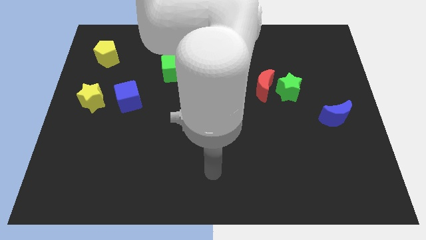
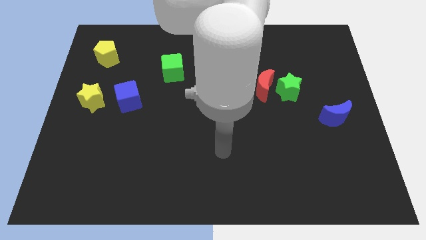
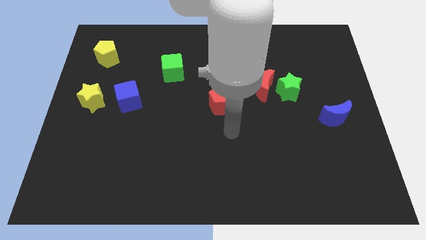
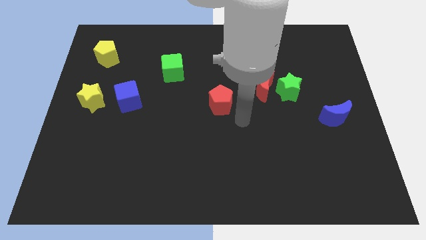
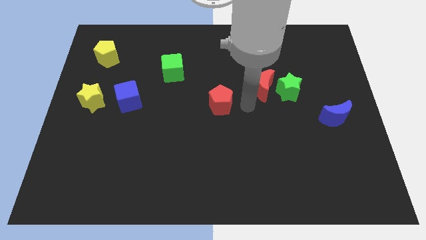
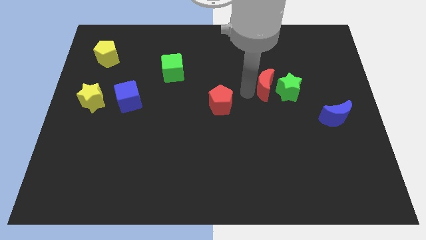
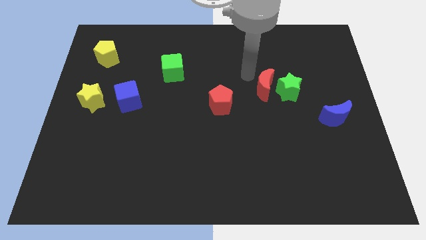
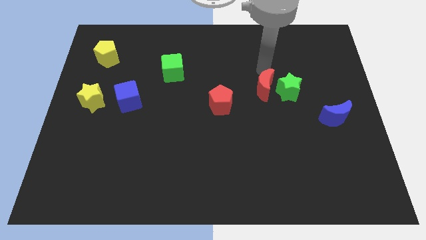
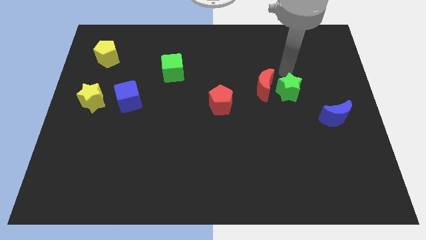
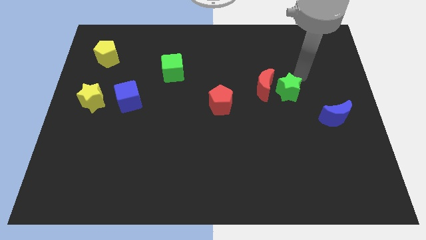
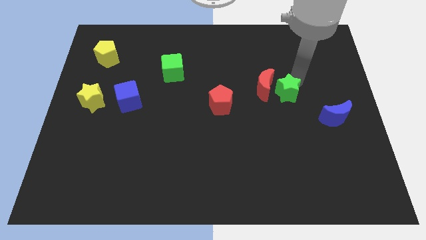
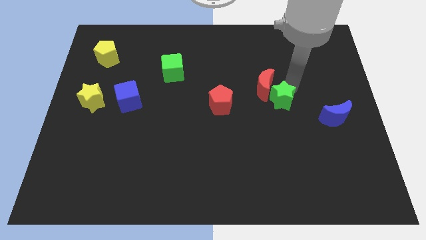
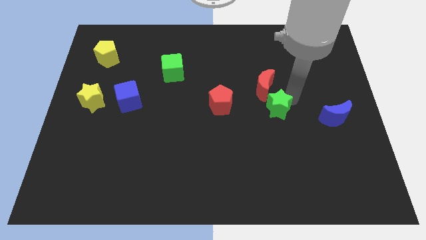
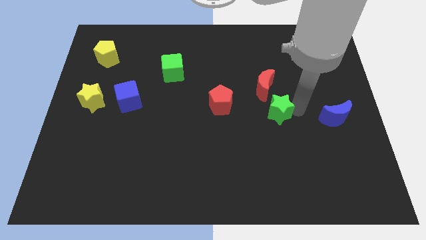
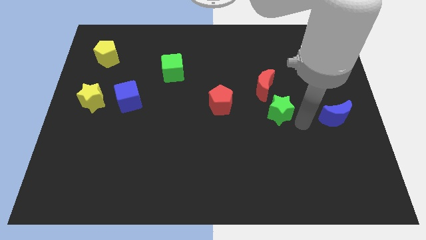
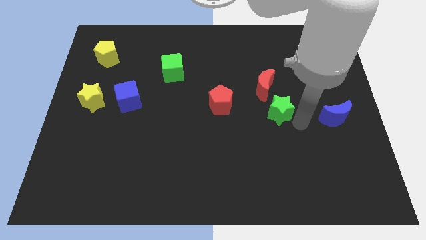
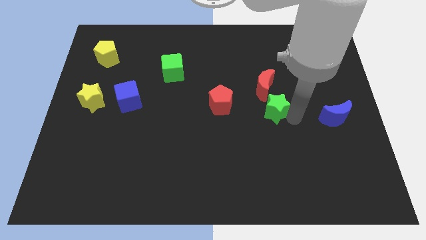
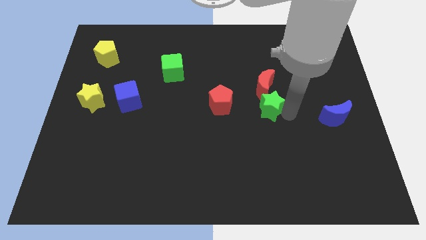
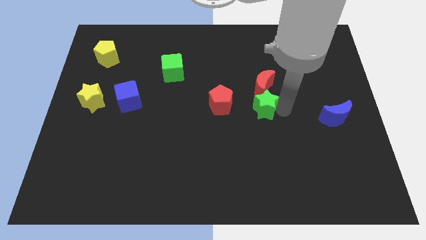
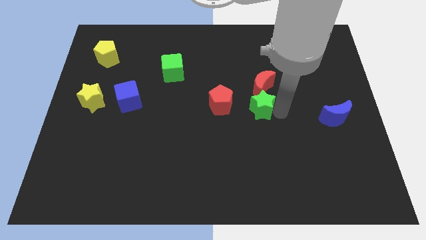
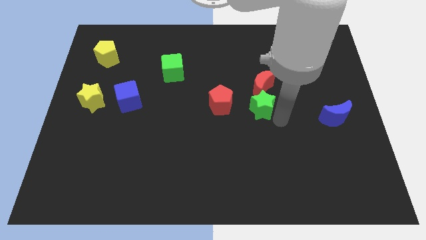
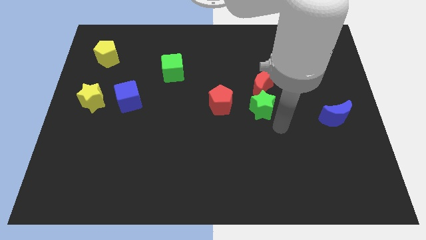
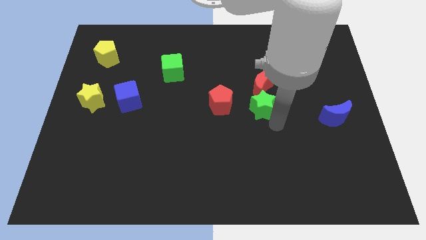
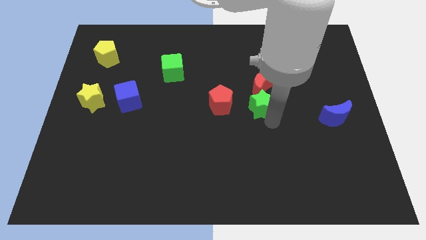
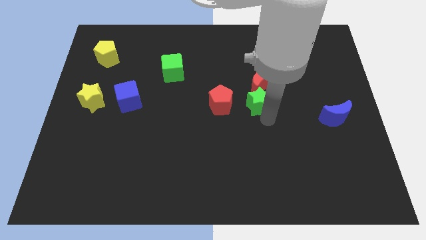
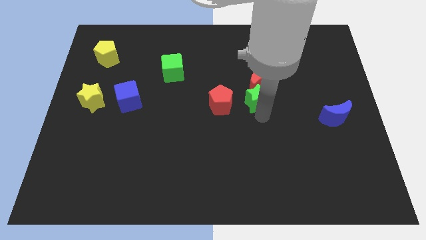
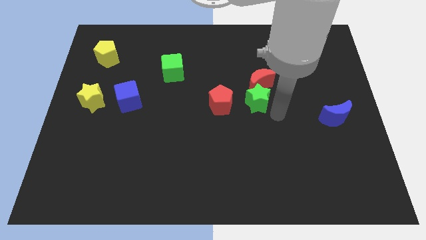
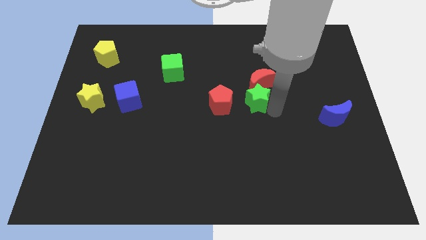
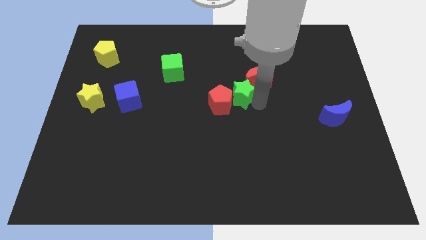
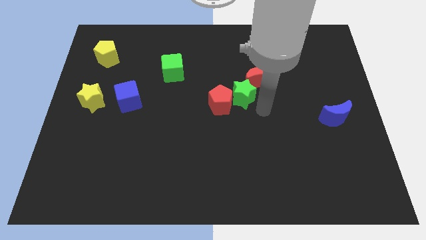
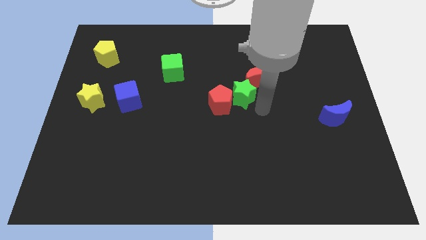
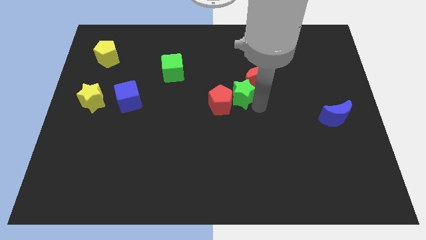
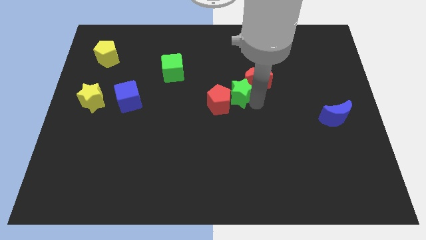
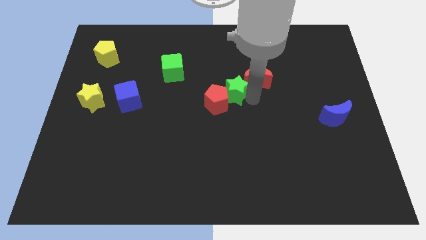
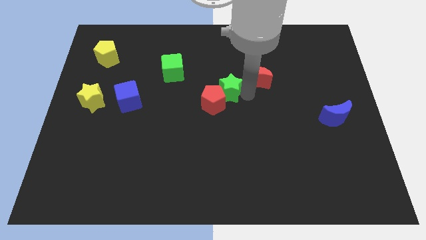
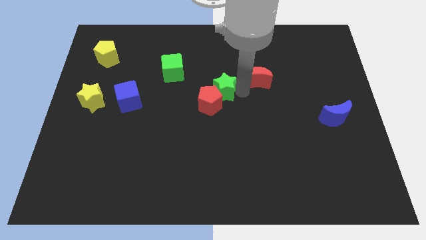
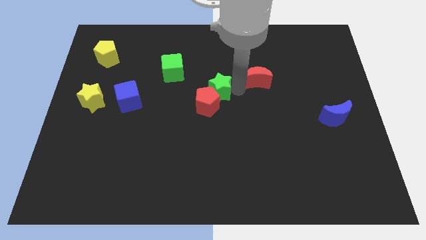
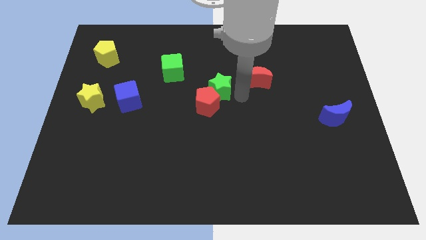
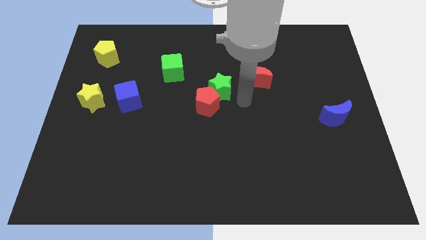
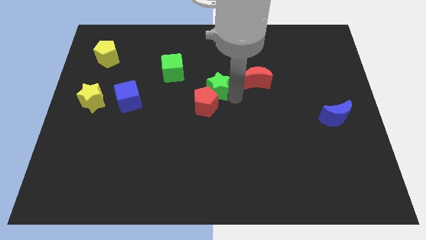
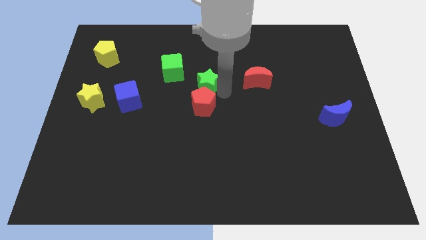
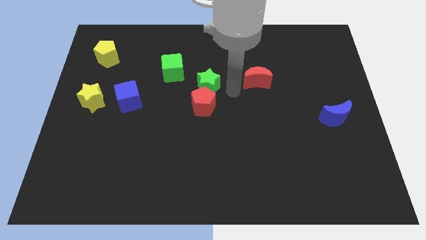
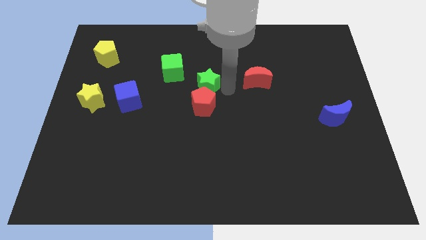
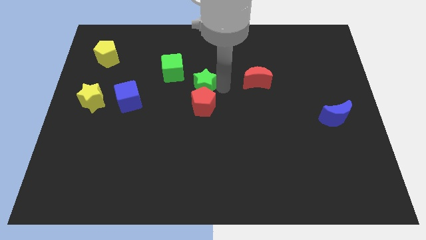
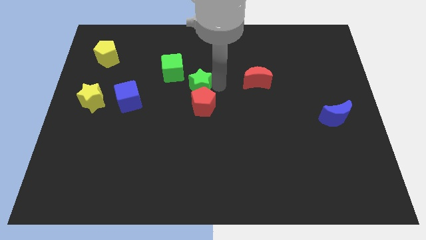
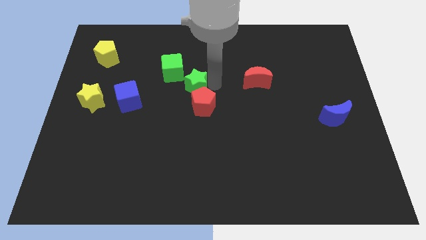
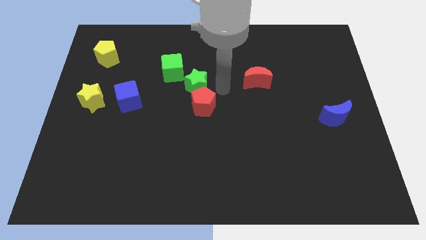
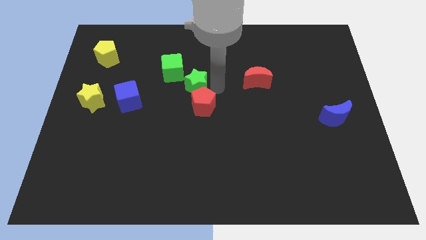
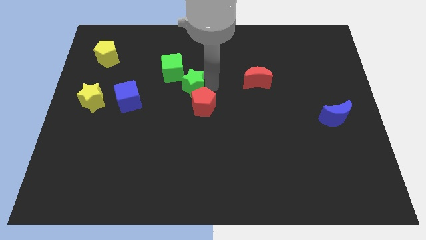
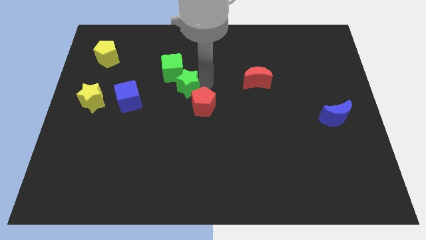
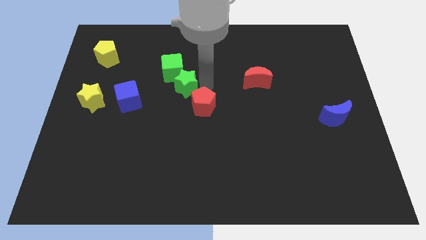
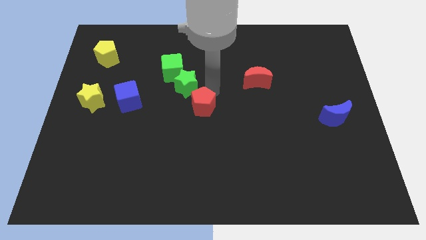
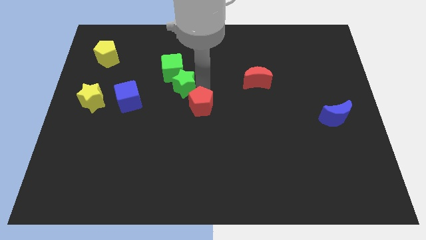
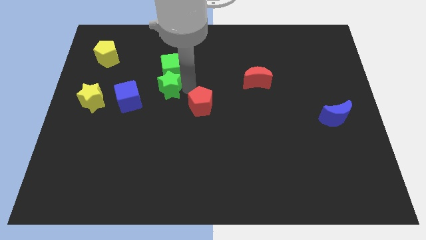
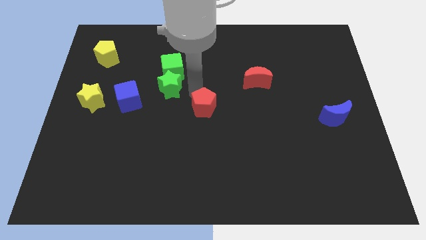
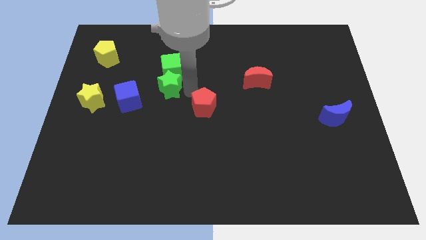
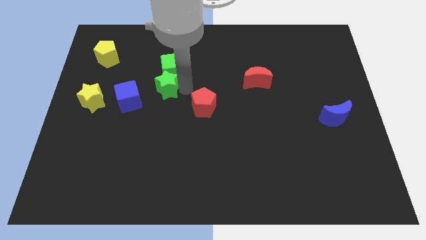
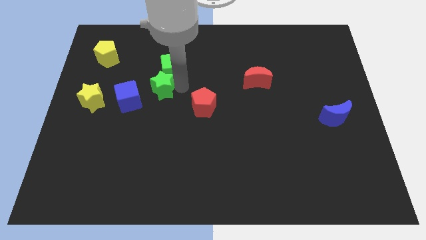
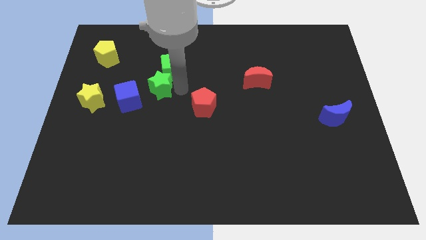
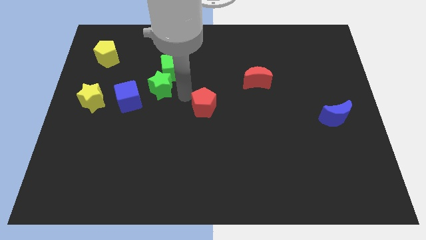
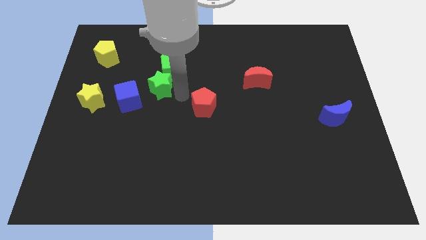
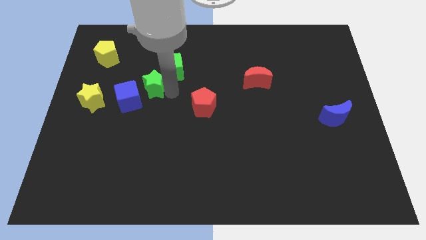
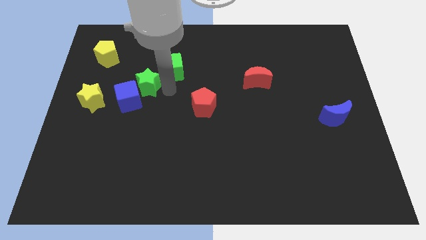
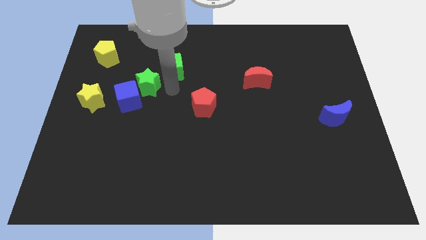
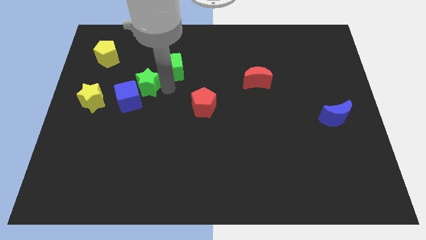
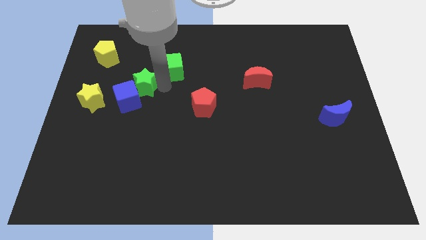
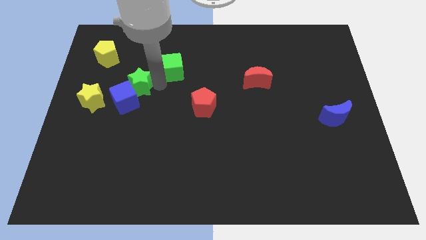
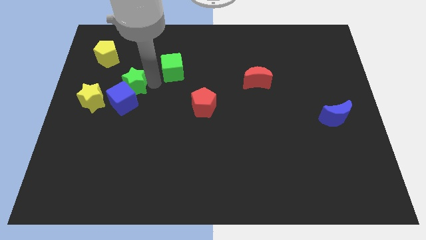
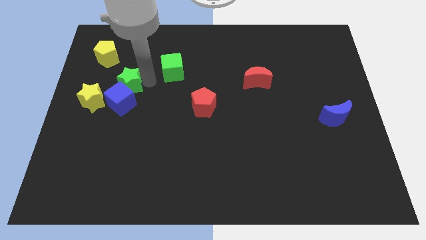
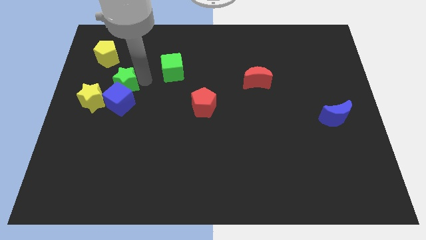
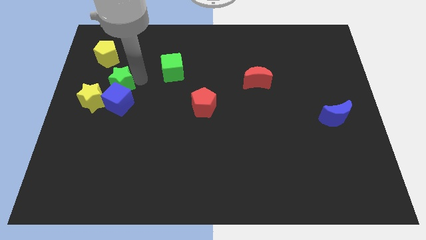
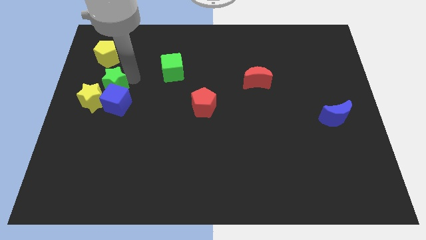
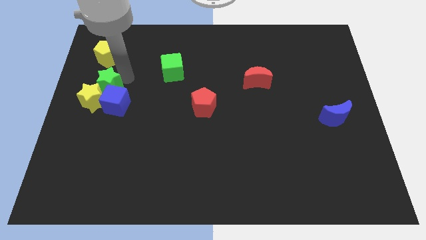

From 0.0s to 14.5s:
move the green star to the yellow star

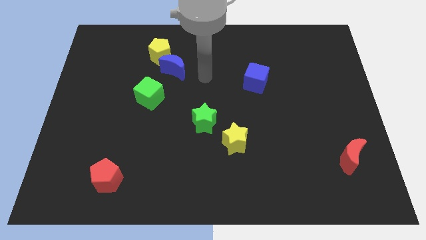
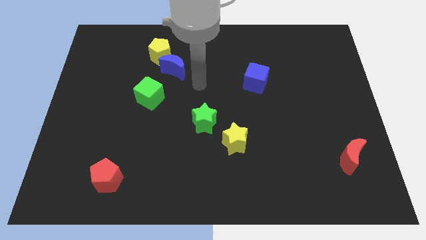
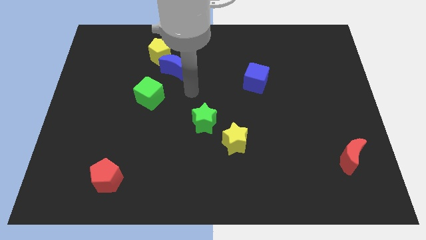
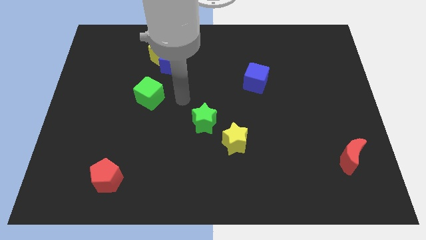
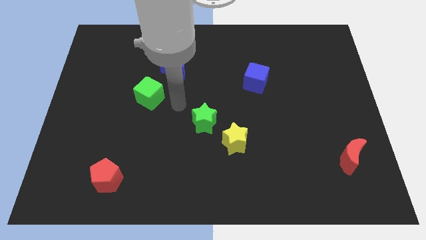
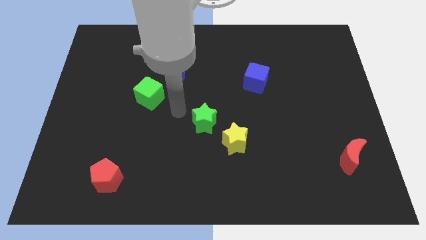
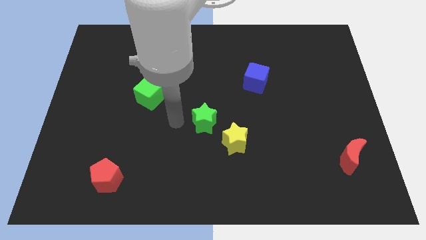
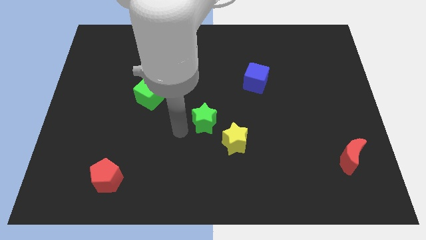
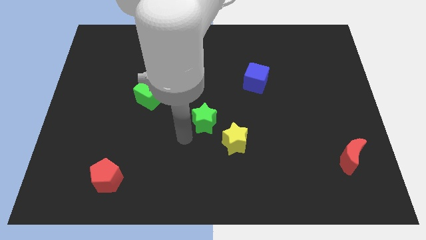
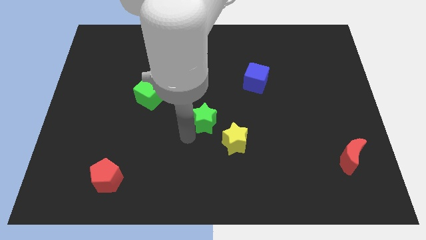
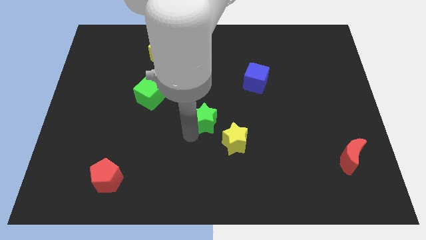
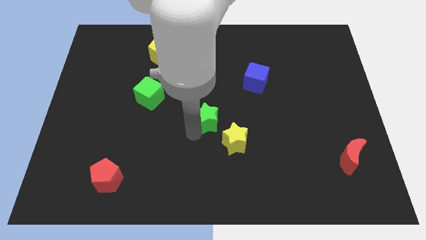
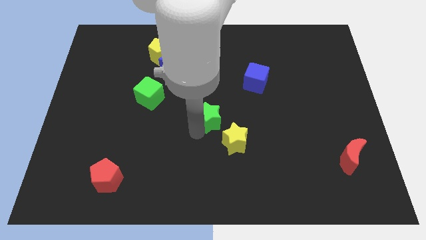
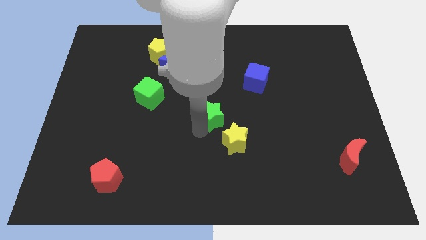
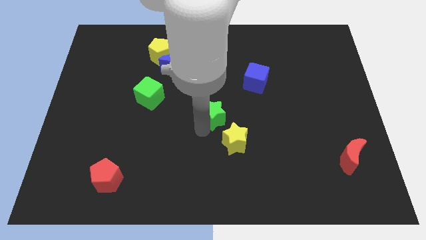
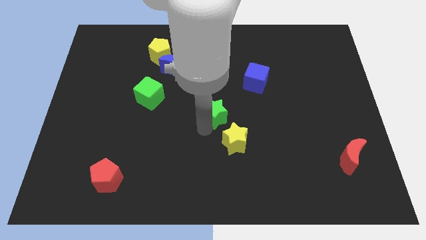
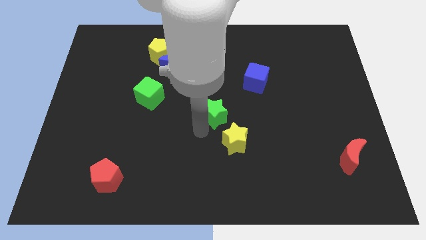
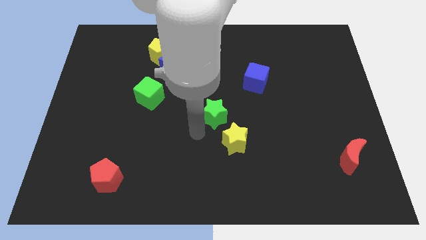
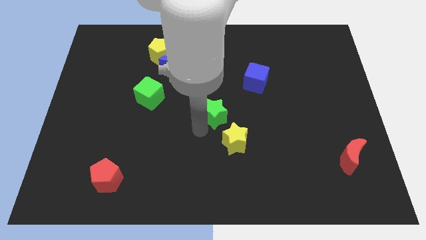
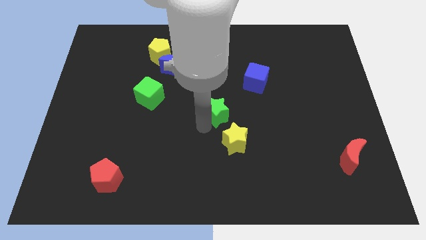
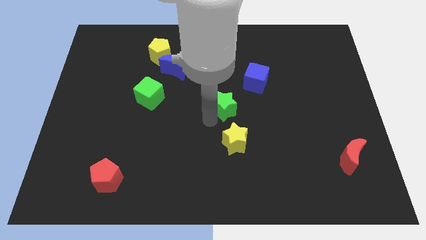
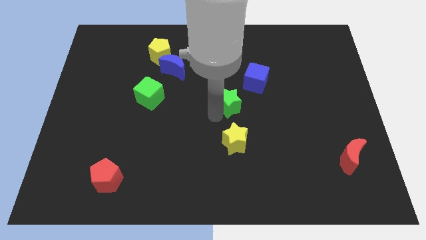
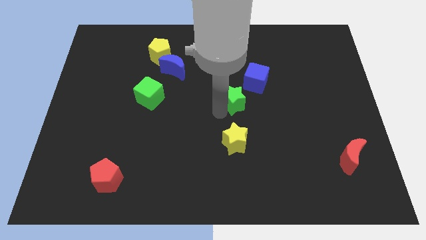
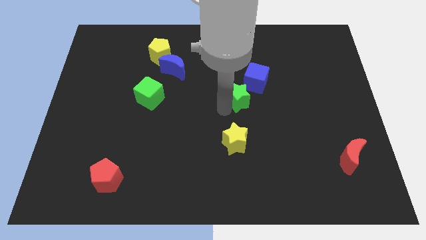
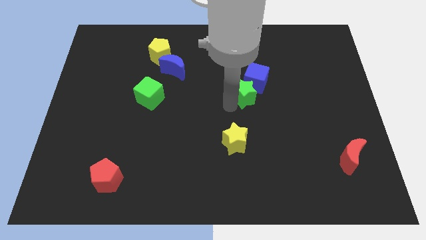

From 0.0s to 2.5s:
move the green star close to the blue cube
